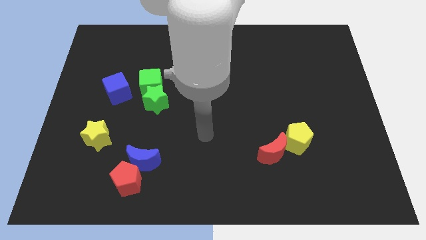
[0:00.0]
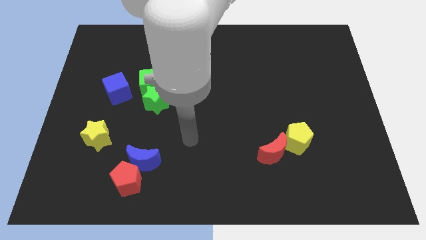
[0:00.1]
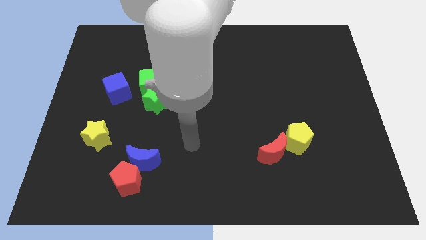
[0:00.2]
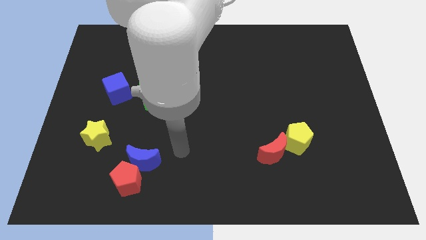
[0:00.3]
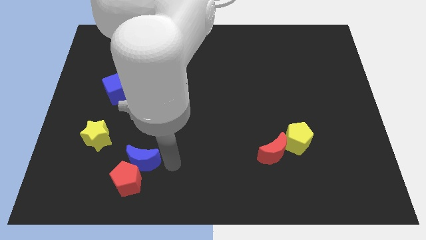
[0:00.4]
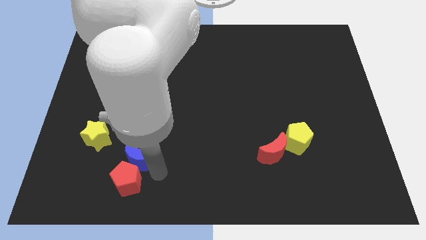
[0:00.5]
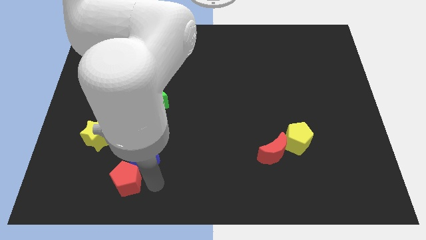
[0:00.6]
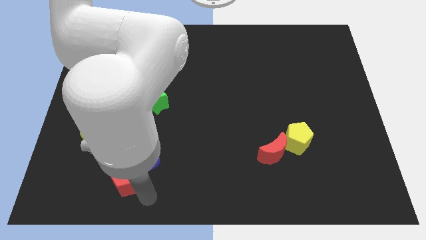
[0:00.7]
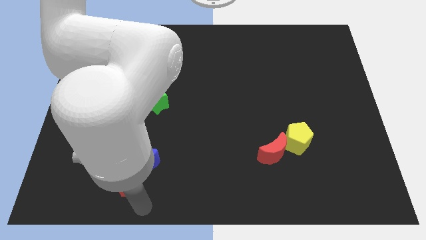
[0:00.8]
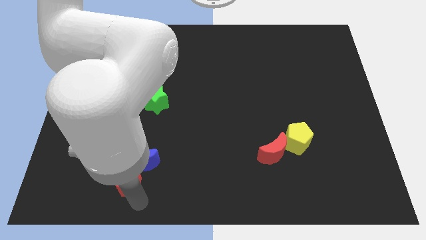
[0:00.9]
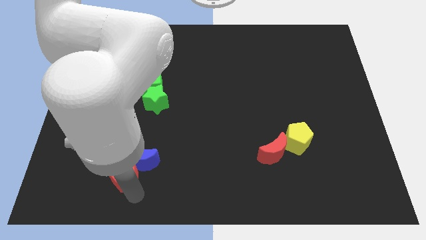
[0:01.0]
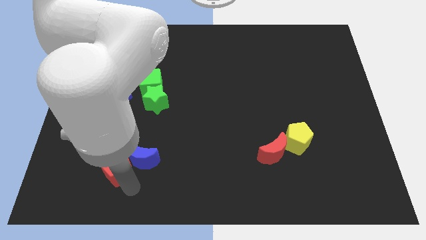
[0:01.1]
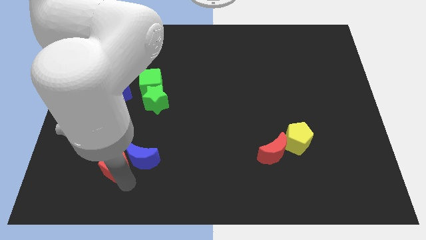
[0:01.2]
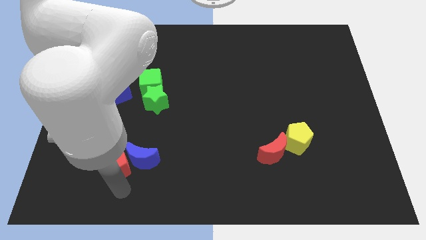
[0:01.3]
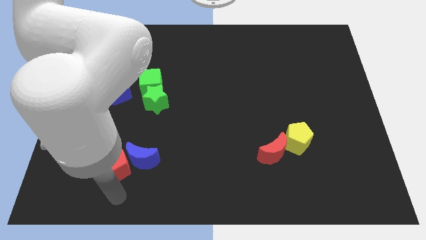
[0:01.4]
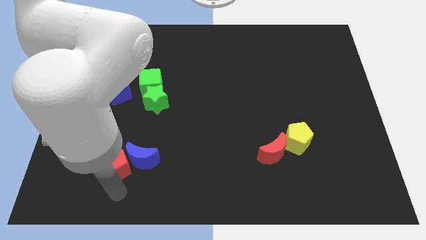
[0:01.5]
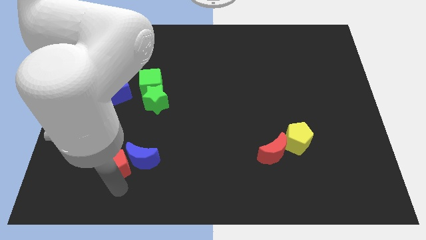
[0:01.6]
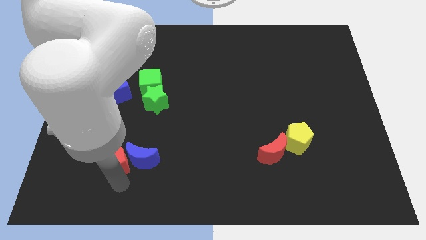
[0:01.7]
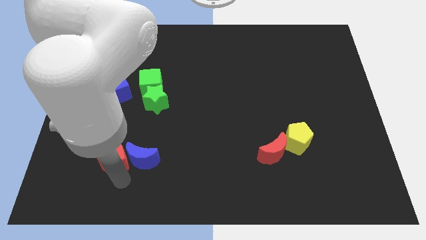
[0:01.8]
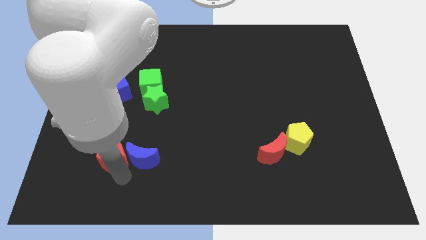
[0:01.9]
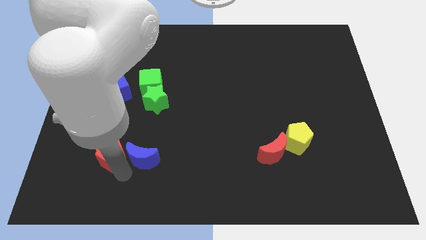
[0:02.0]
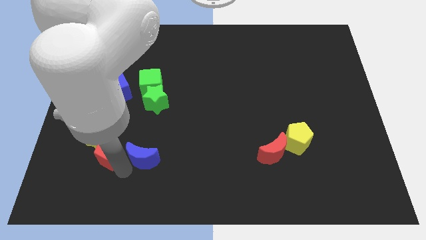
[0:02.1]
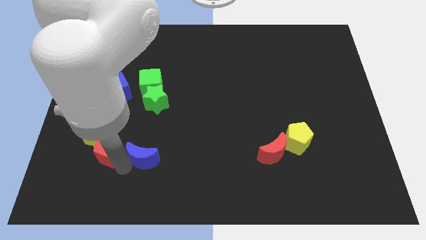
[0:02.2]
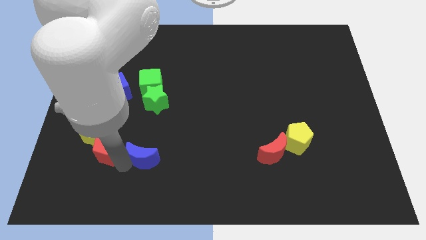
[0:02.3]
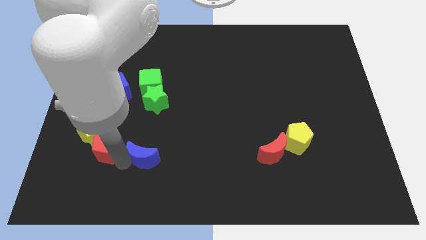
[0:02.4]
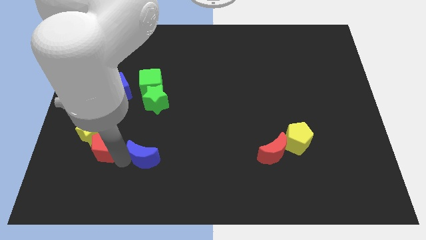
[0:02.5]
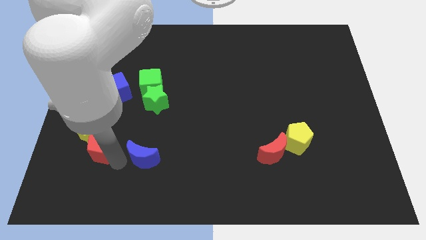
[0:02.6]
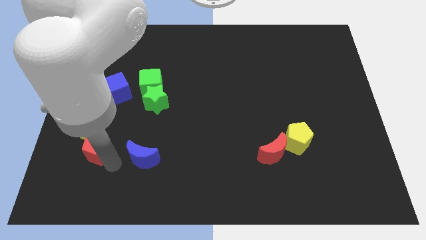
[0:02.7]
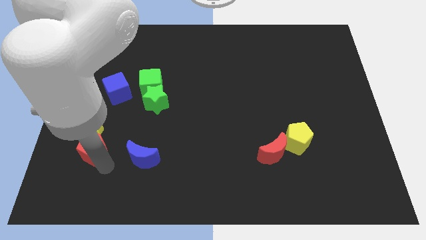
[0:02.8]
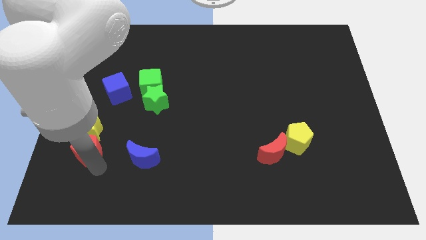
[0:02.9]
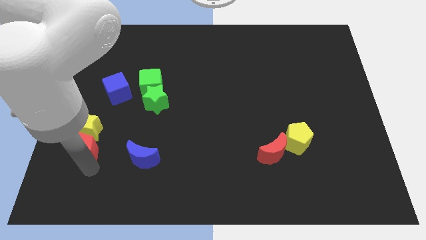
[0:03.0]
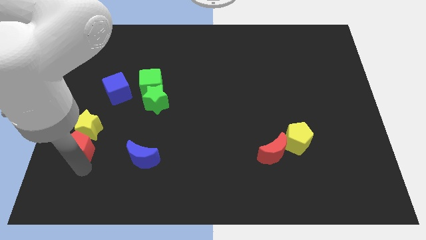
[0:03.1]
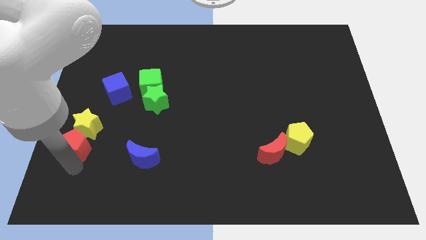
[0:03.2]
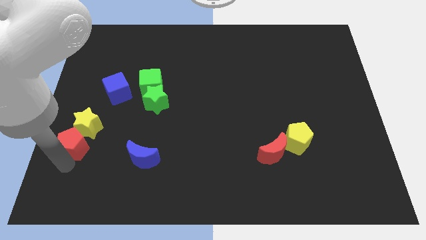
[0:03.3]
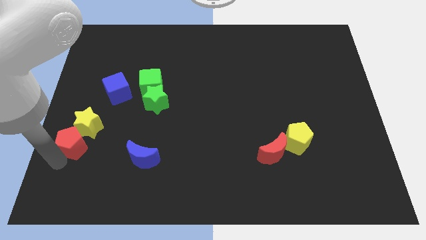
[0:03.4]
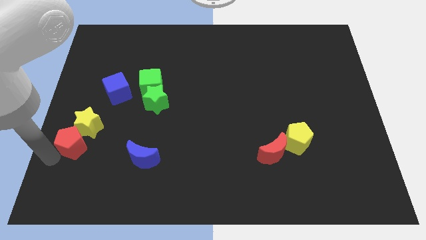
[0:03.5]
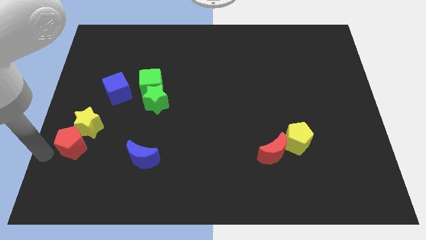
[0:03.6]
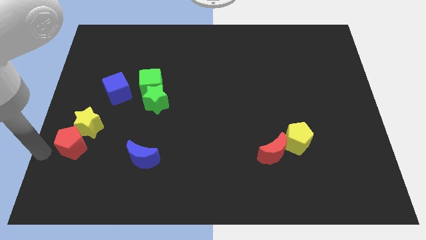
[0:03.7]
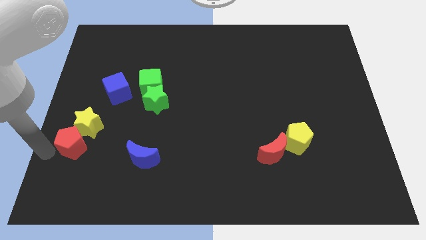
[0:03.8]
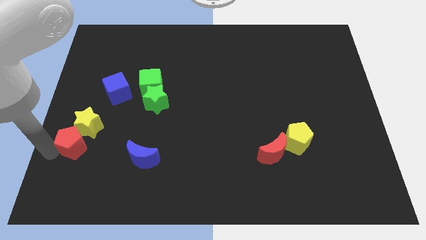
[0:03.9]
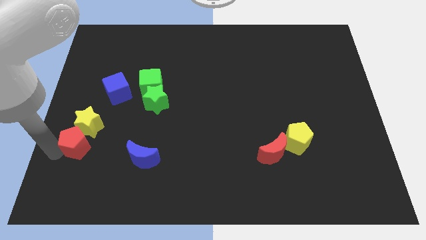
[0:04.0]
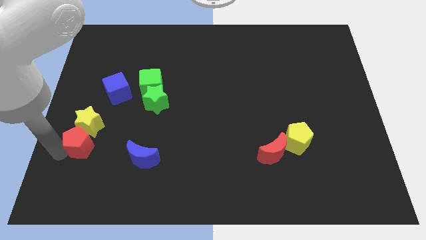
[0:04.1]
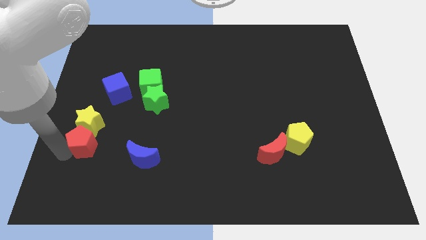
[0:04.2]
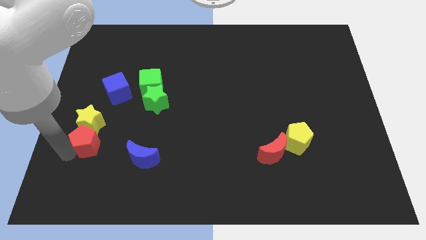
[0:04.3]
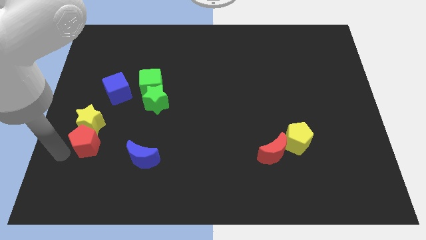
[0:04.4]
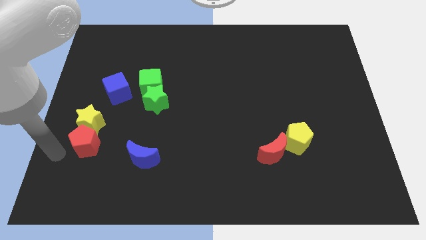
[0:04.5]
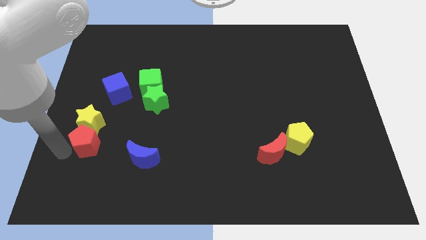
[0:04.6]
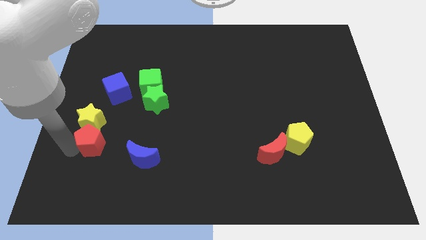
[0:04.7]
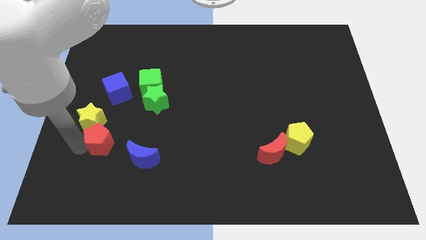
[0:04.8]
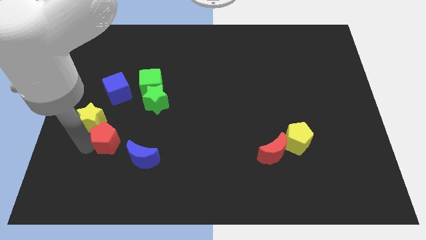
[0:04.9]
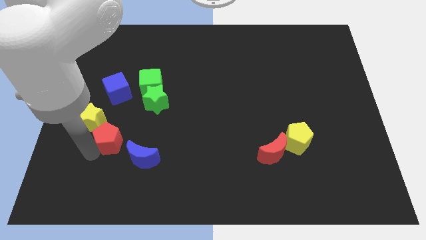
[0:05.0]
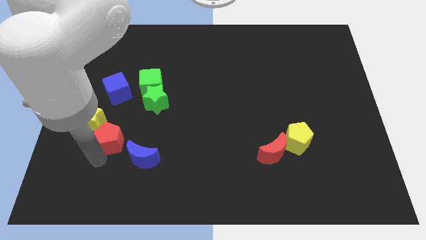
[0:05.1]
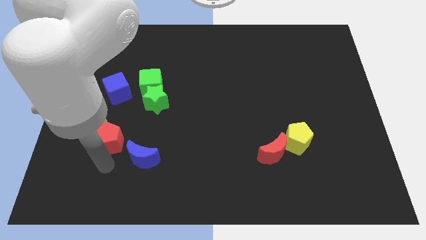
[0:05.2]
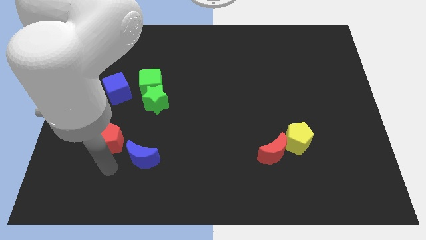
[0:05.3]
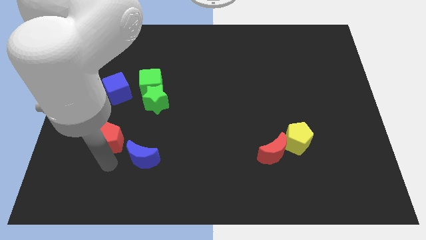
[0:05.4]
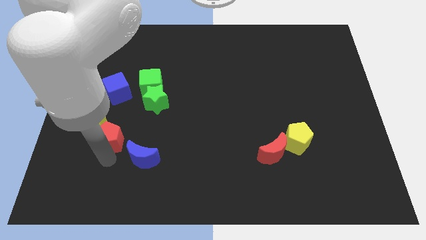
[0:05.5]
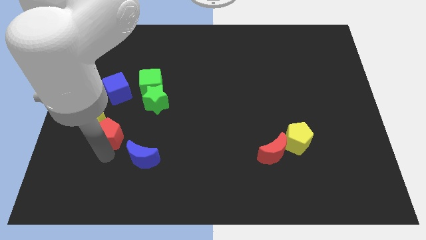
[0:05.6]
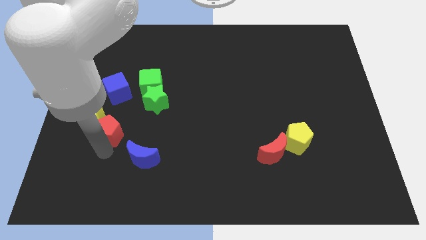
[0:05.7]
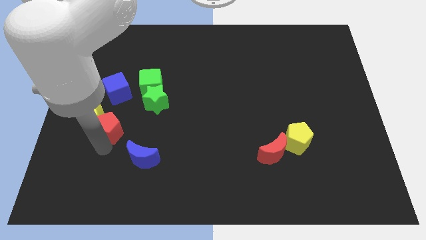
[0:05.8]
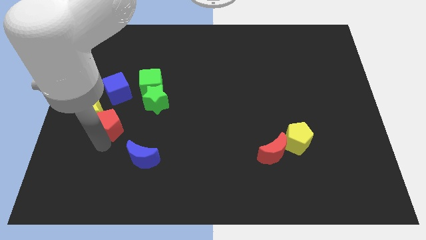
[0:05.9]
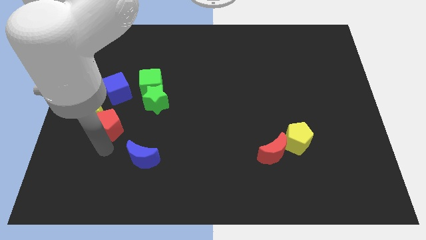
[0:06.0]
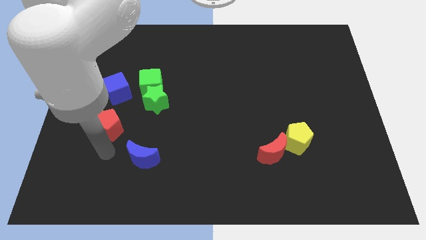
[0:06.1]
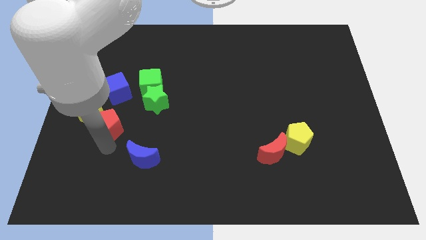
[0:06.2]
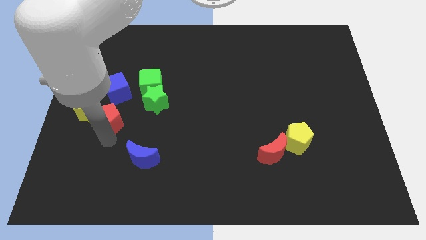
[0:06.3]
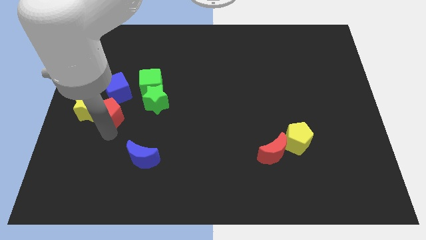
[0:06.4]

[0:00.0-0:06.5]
slide the red pentagon just left of the green star
